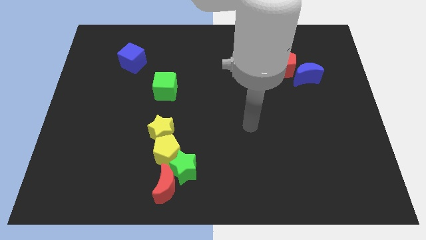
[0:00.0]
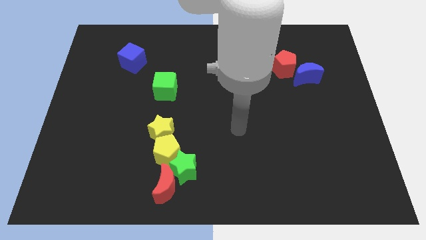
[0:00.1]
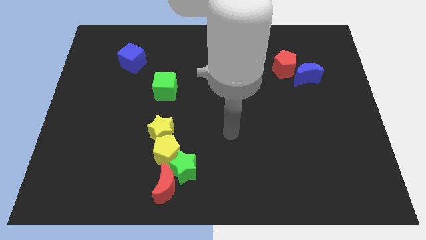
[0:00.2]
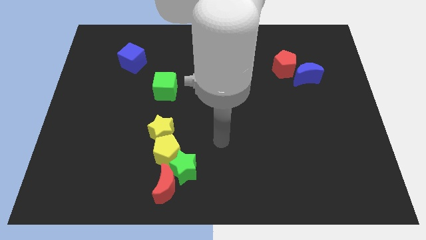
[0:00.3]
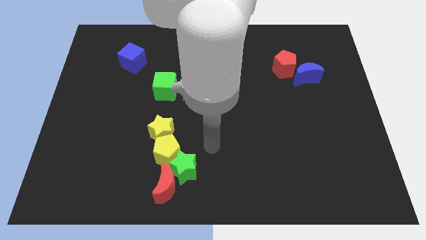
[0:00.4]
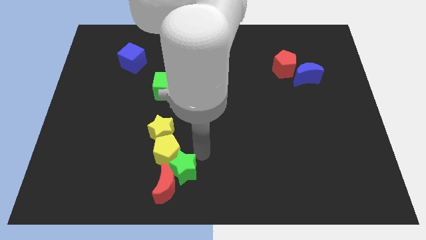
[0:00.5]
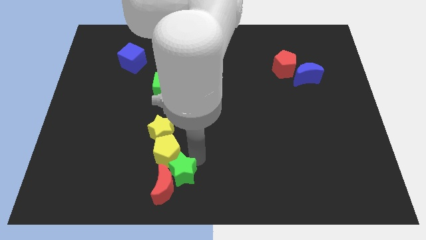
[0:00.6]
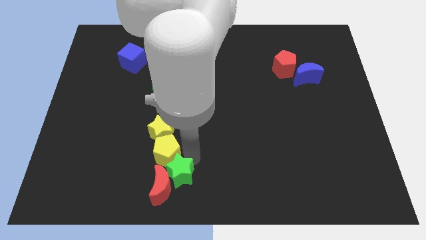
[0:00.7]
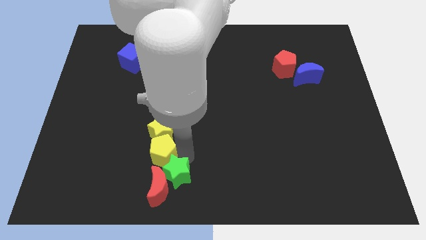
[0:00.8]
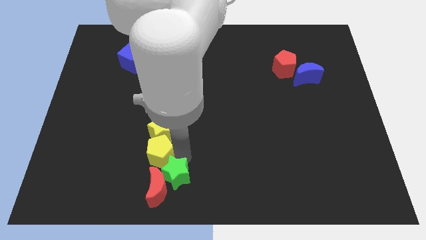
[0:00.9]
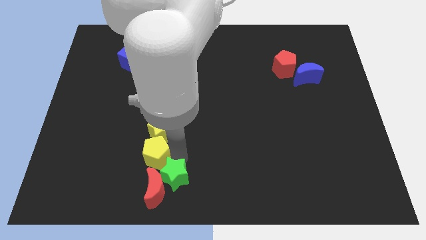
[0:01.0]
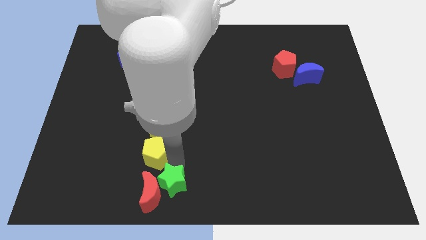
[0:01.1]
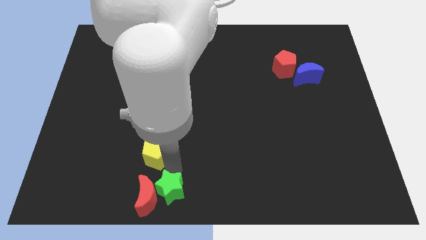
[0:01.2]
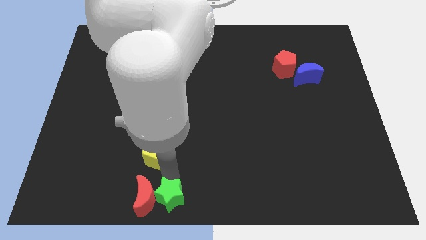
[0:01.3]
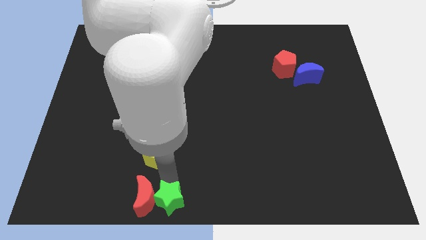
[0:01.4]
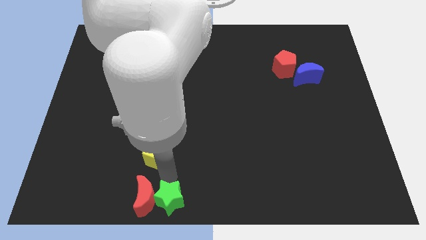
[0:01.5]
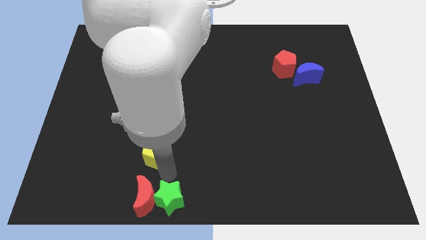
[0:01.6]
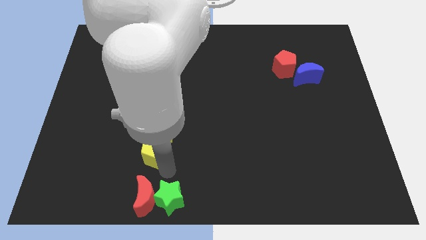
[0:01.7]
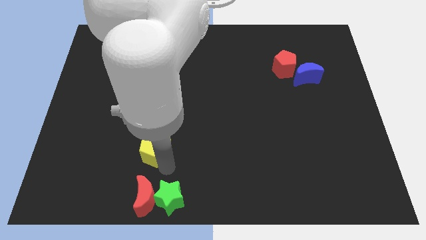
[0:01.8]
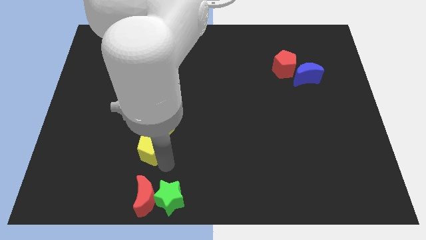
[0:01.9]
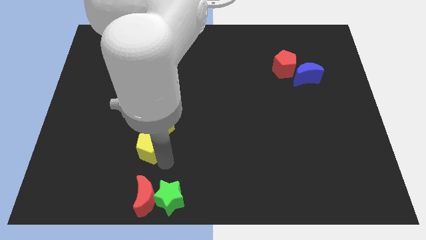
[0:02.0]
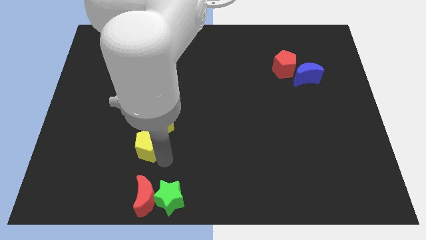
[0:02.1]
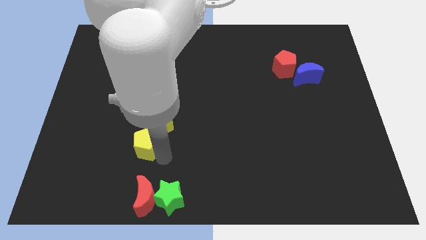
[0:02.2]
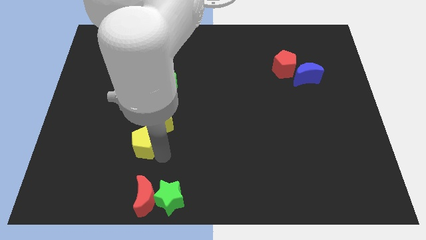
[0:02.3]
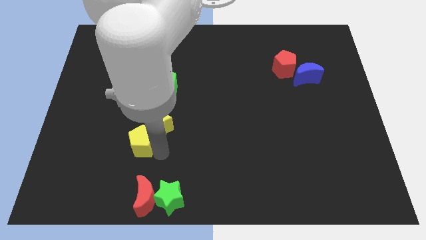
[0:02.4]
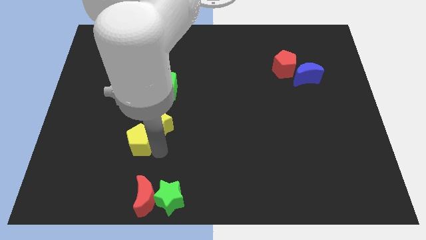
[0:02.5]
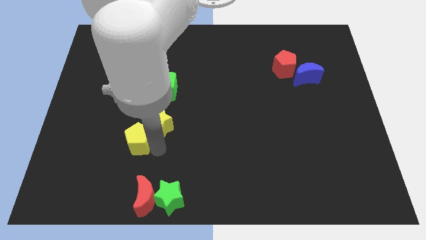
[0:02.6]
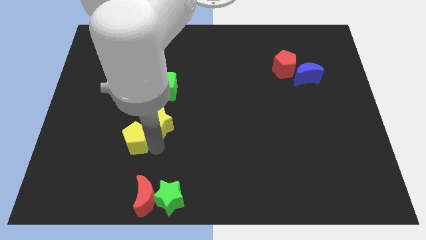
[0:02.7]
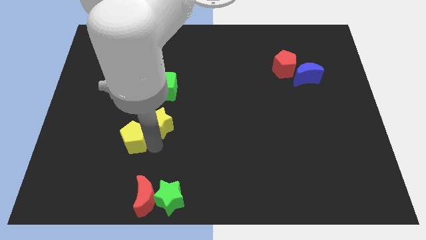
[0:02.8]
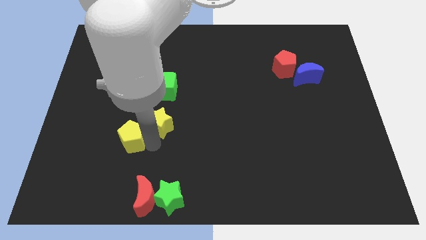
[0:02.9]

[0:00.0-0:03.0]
pull the yellow pentagon apart from the clump

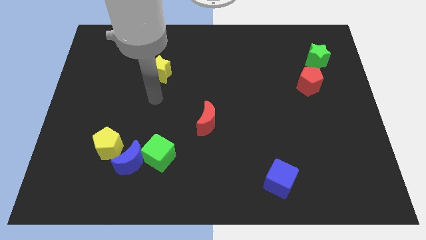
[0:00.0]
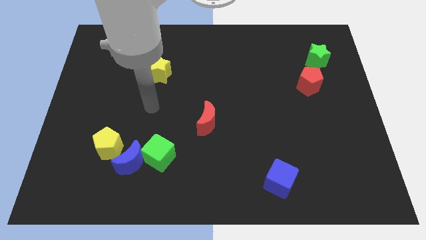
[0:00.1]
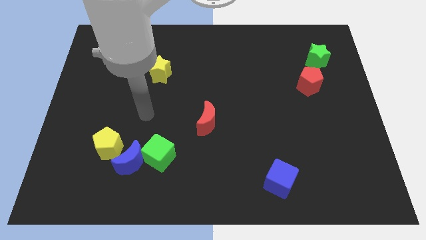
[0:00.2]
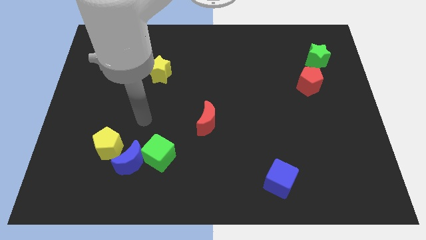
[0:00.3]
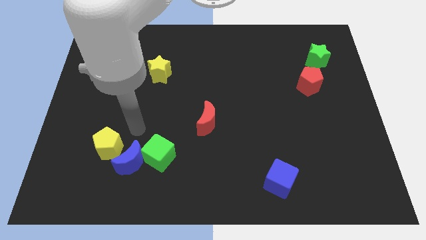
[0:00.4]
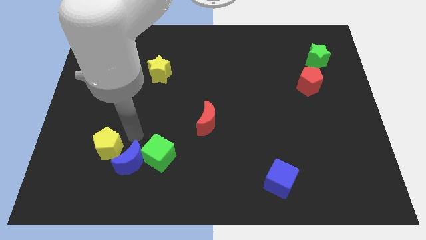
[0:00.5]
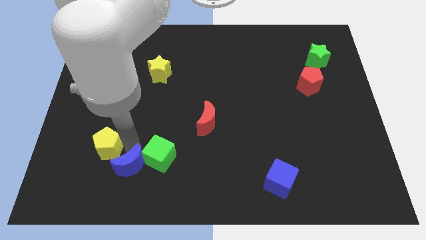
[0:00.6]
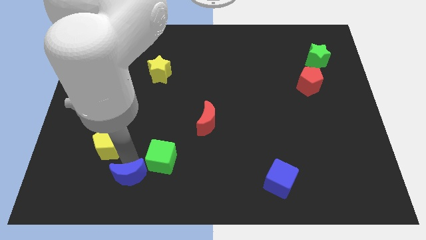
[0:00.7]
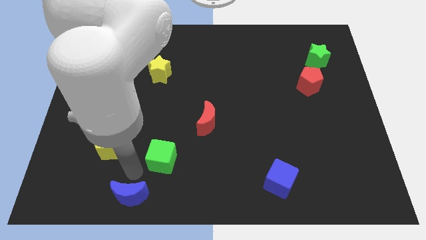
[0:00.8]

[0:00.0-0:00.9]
separate the green cube from the blue moon

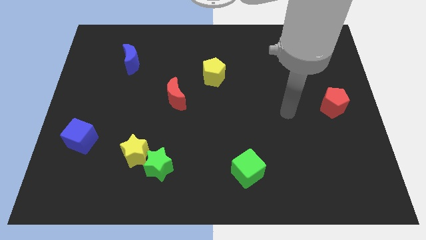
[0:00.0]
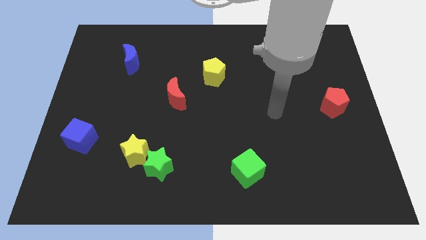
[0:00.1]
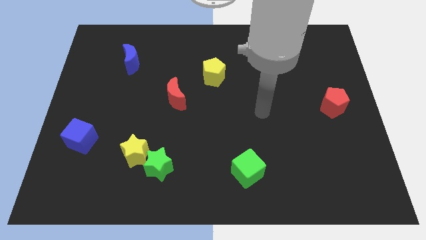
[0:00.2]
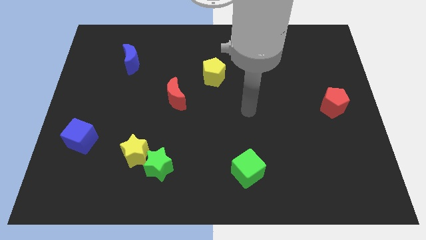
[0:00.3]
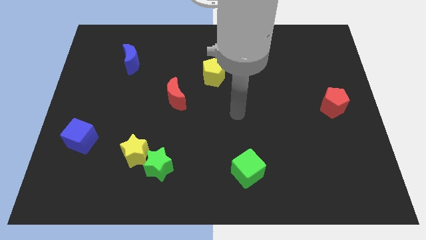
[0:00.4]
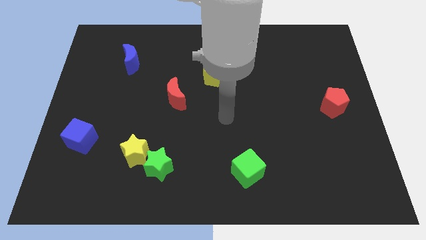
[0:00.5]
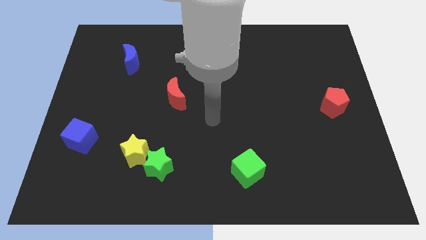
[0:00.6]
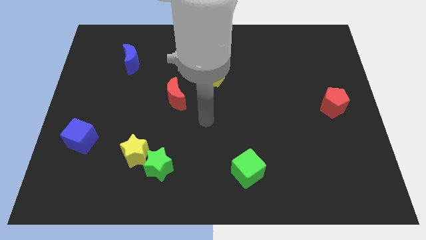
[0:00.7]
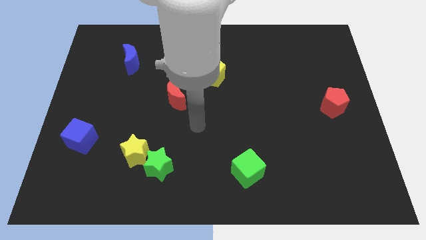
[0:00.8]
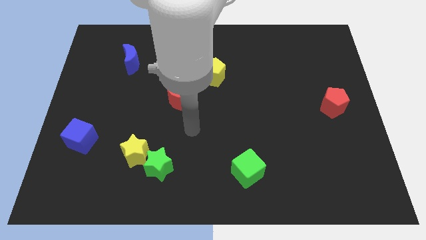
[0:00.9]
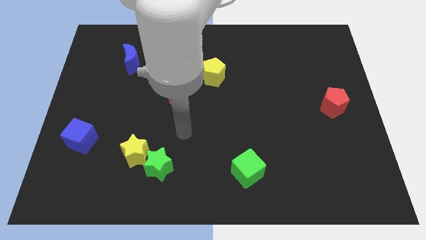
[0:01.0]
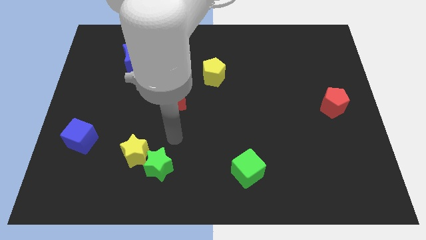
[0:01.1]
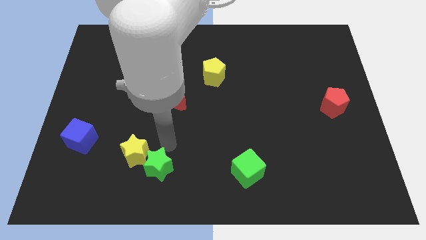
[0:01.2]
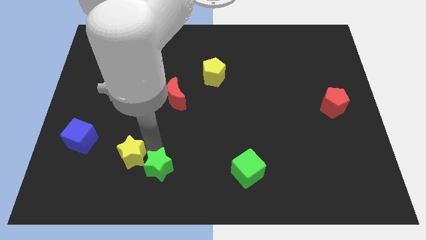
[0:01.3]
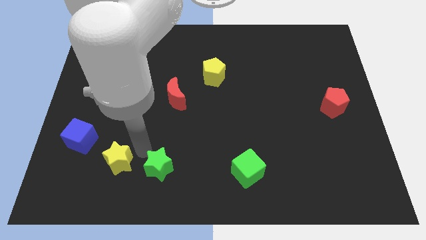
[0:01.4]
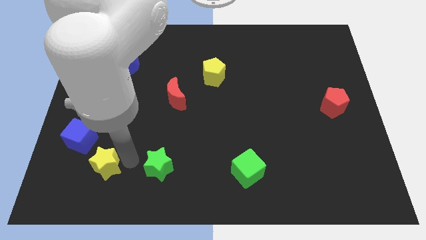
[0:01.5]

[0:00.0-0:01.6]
pull the green star apart from the yellow star

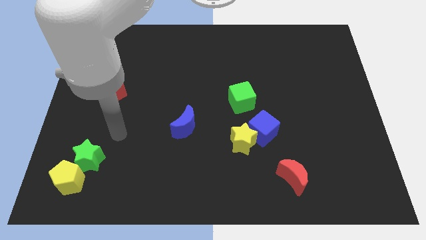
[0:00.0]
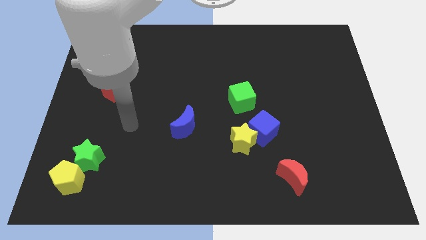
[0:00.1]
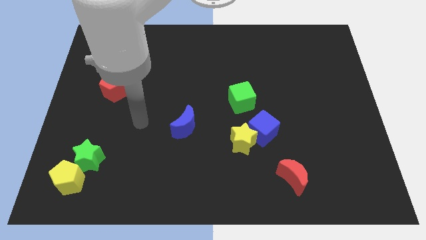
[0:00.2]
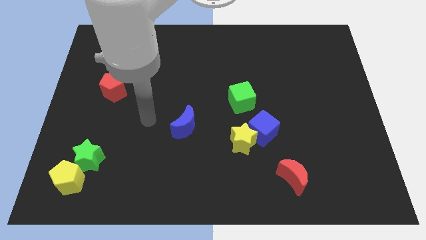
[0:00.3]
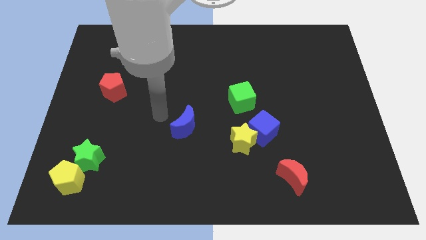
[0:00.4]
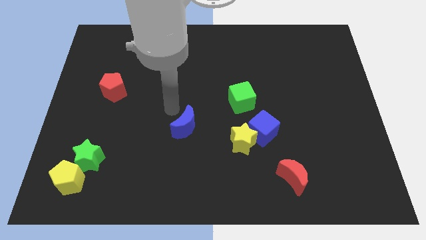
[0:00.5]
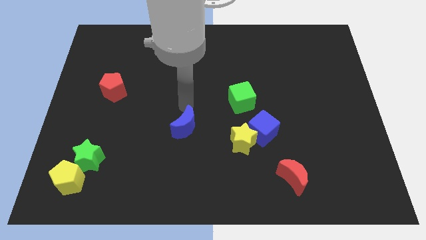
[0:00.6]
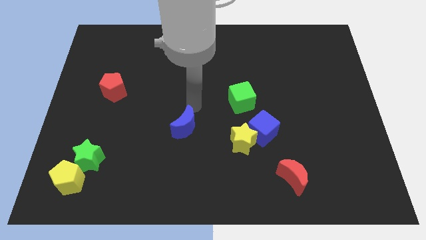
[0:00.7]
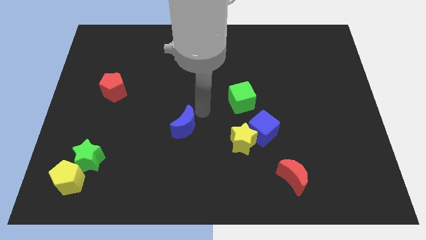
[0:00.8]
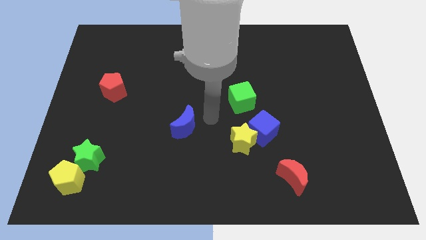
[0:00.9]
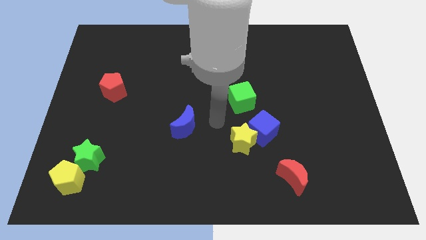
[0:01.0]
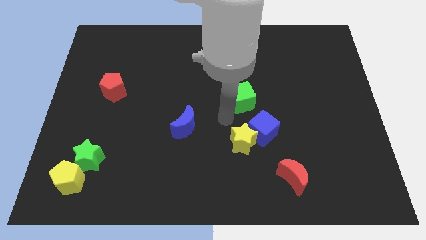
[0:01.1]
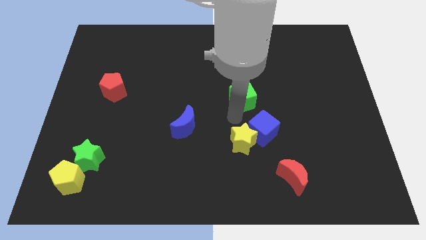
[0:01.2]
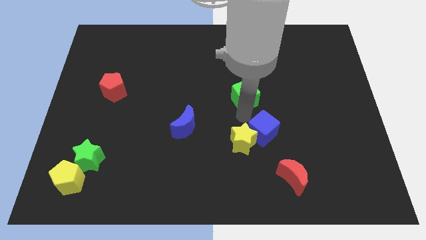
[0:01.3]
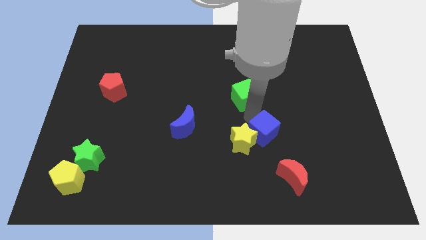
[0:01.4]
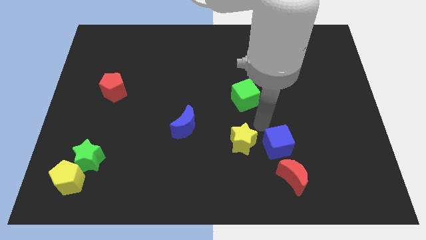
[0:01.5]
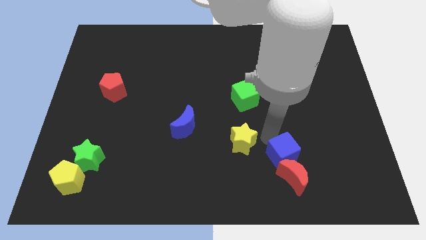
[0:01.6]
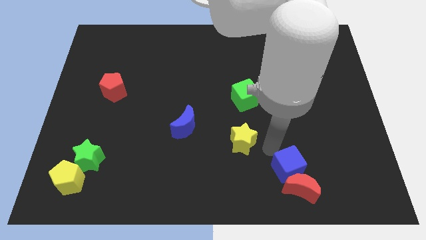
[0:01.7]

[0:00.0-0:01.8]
pull the yellow star apart from the blue cube

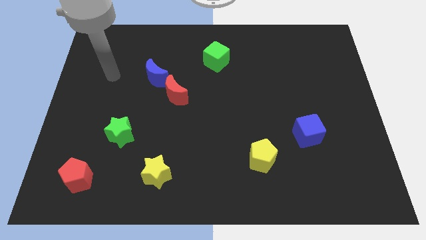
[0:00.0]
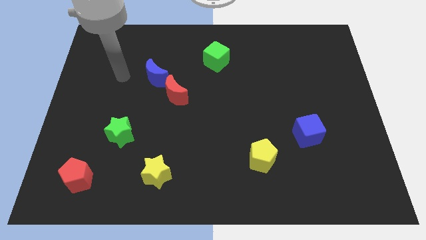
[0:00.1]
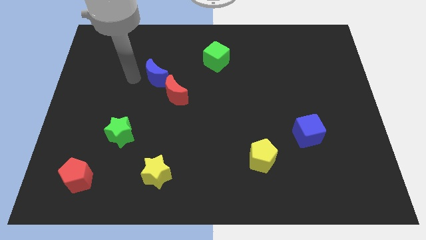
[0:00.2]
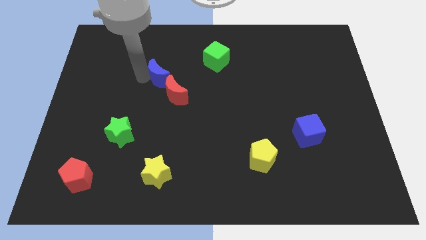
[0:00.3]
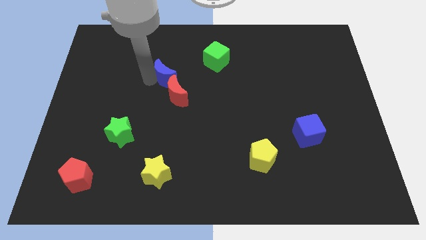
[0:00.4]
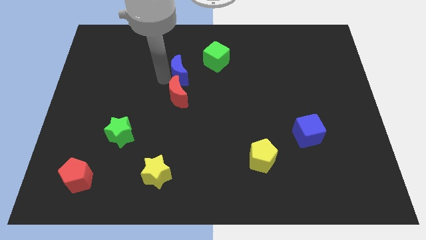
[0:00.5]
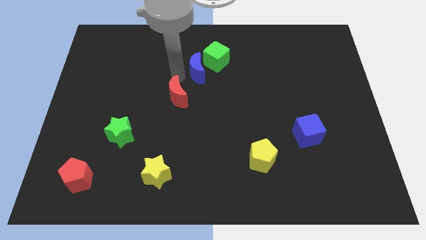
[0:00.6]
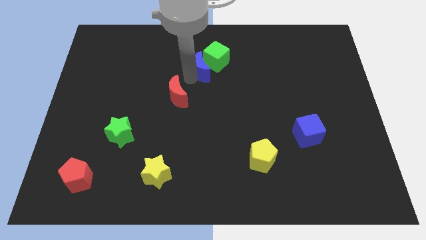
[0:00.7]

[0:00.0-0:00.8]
separate the red moon from the blue moon

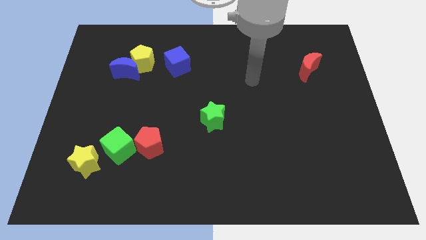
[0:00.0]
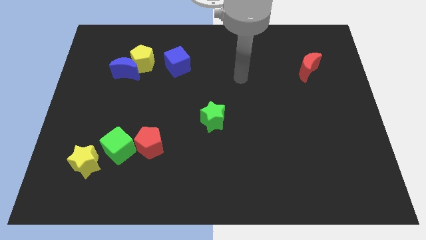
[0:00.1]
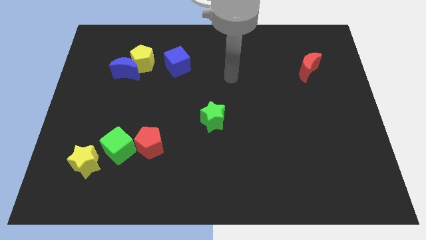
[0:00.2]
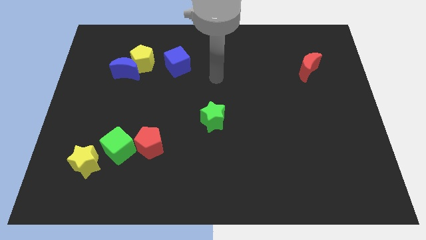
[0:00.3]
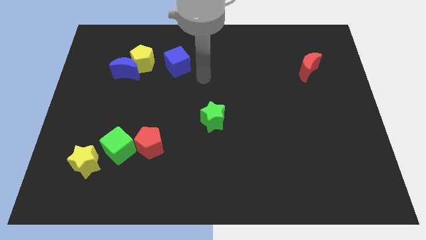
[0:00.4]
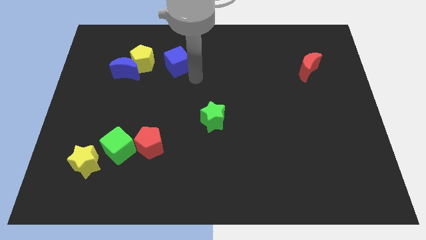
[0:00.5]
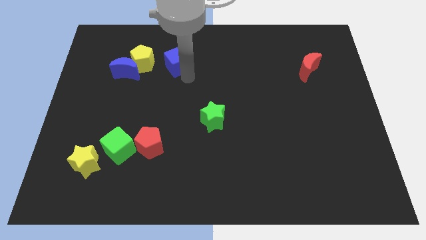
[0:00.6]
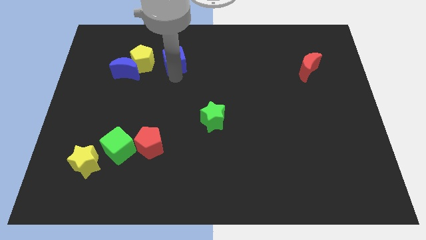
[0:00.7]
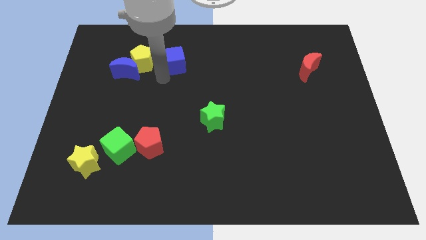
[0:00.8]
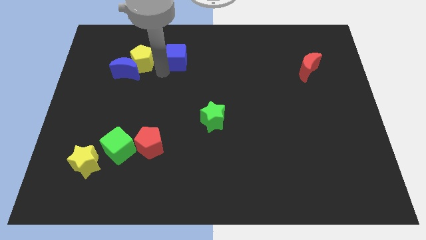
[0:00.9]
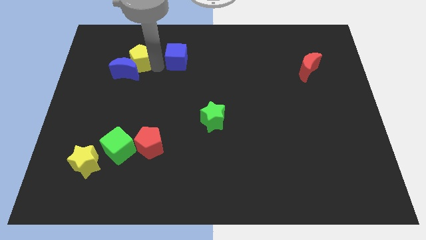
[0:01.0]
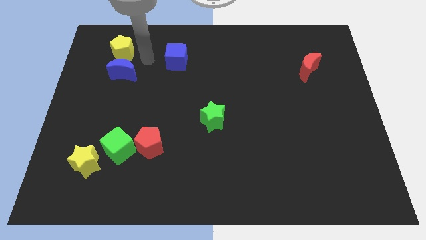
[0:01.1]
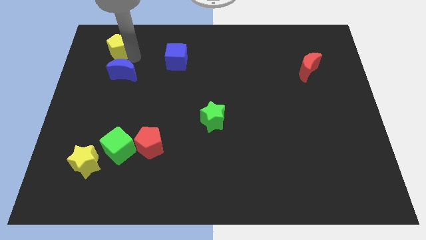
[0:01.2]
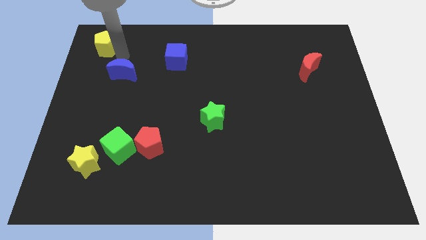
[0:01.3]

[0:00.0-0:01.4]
move the blue moon away from the yellow pentagon
